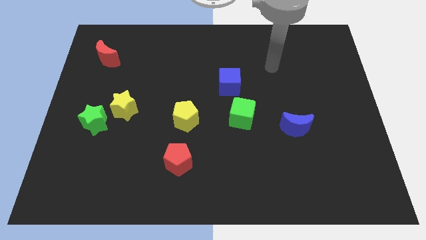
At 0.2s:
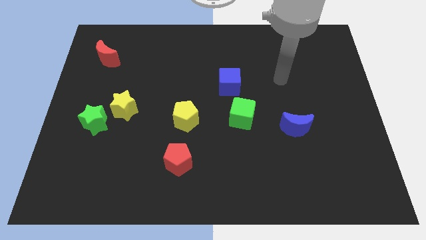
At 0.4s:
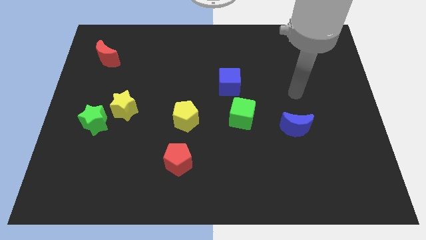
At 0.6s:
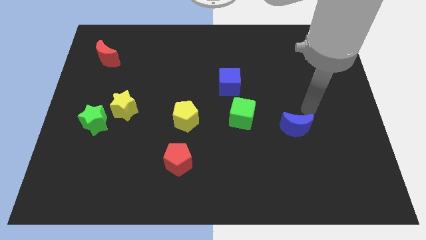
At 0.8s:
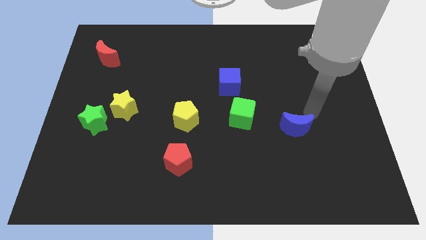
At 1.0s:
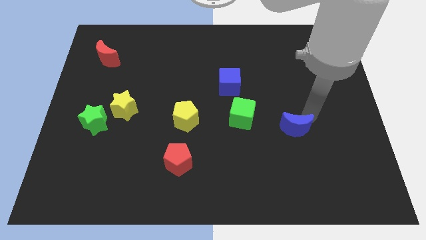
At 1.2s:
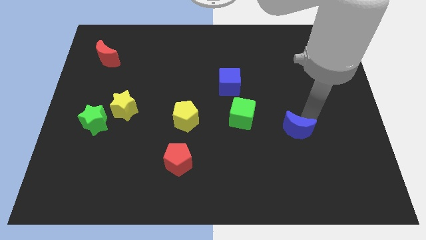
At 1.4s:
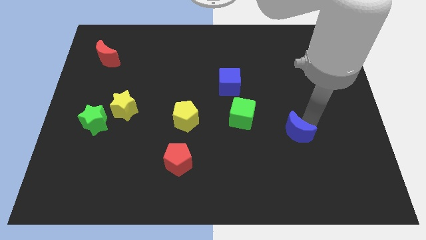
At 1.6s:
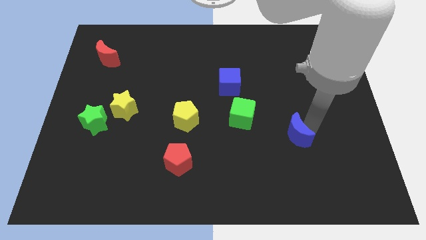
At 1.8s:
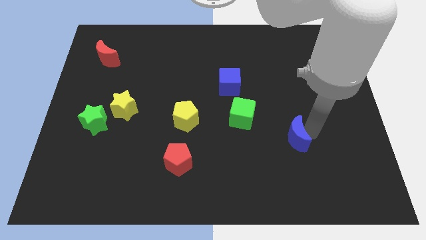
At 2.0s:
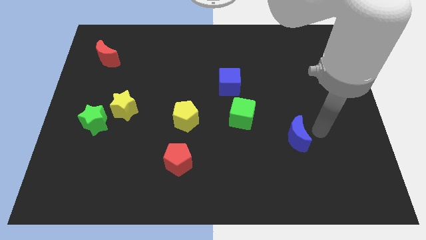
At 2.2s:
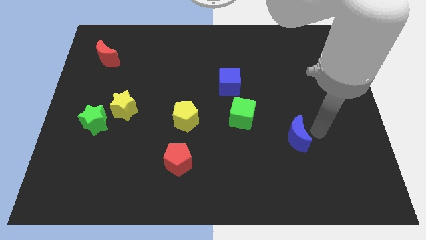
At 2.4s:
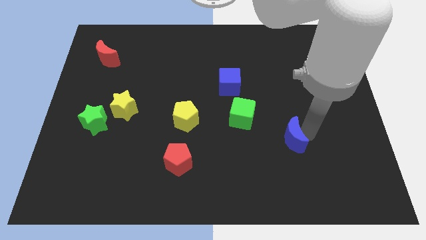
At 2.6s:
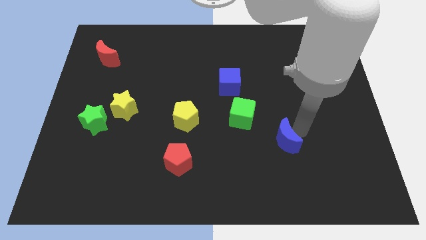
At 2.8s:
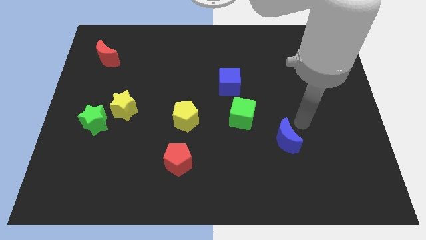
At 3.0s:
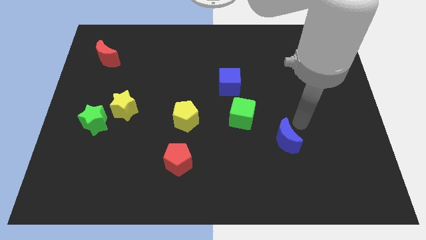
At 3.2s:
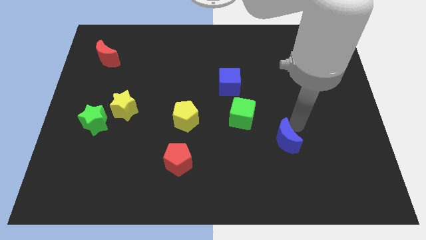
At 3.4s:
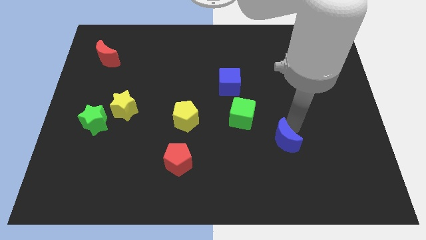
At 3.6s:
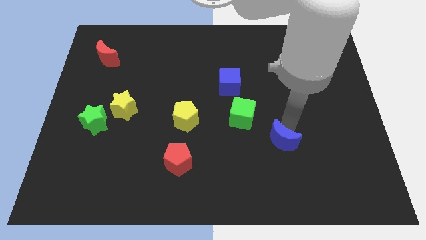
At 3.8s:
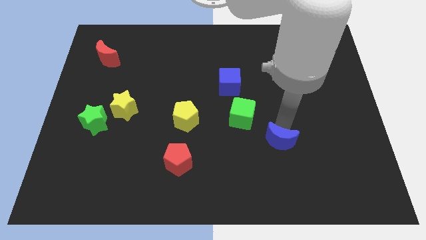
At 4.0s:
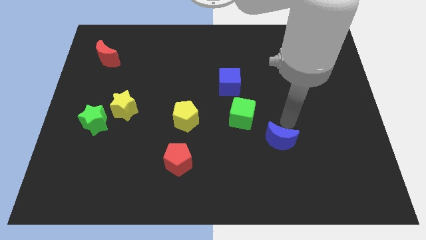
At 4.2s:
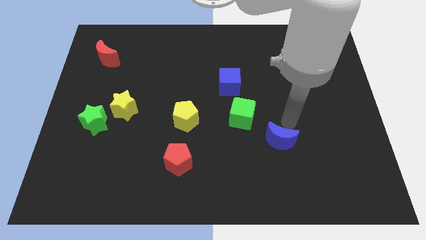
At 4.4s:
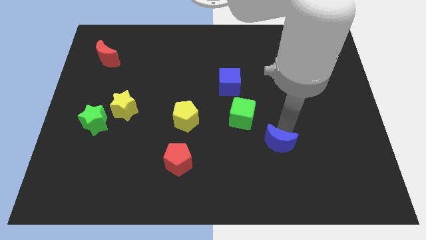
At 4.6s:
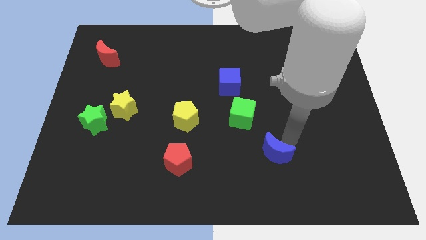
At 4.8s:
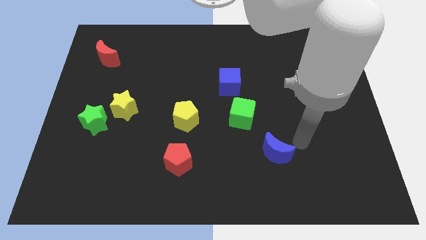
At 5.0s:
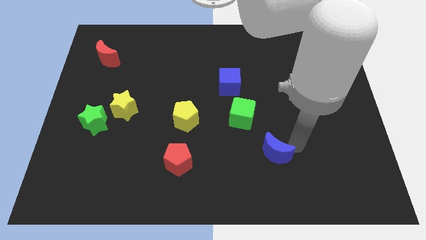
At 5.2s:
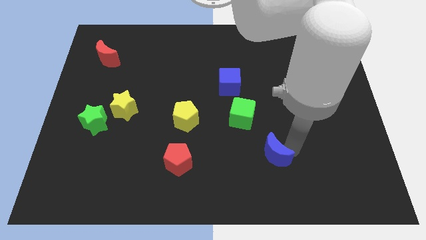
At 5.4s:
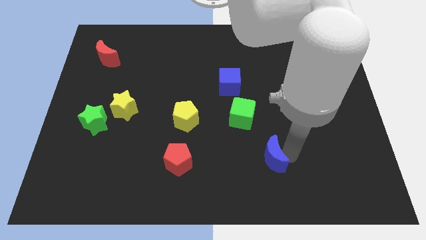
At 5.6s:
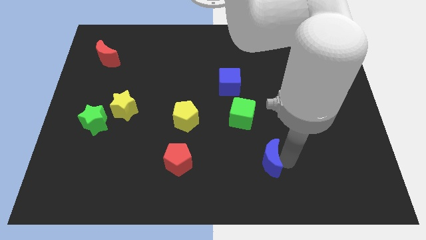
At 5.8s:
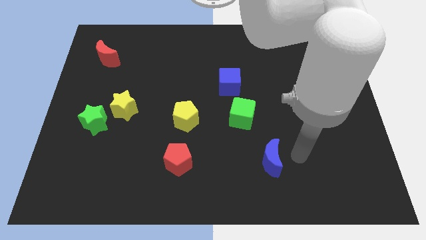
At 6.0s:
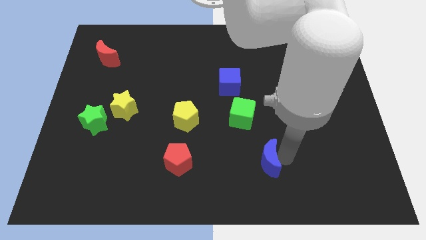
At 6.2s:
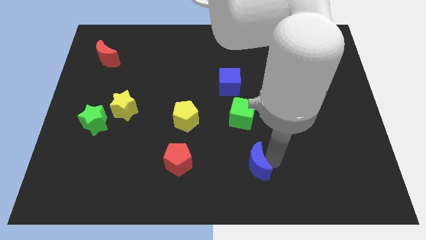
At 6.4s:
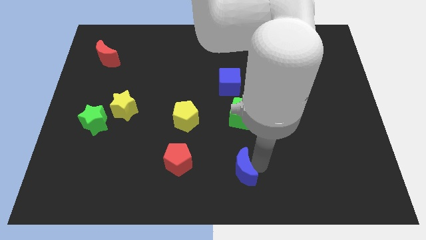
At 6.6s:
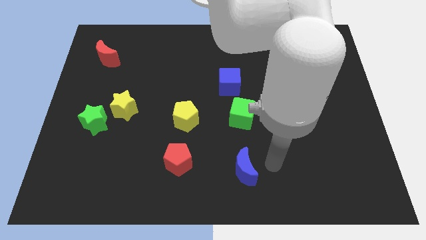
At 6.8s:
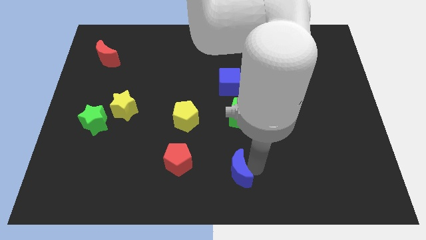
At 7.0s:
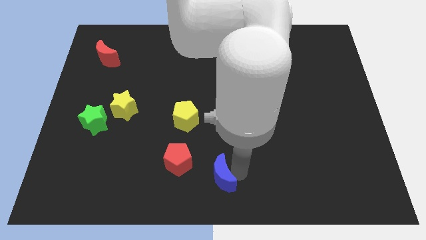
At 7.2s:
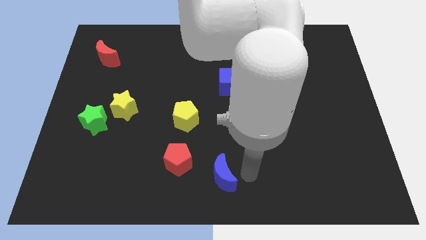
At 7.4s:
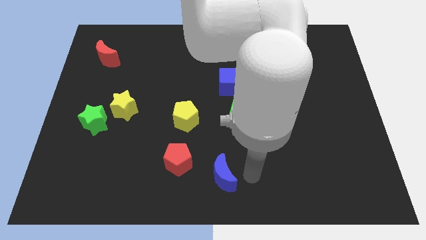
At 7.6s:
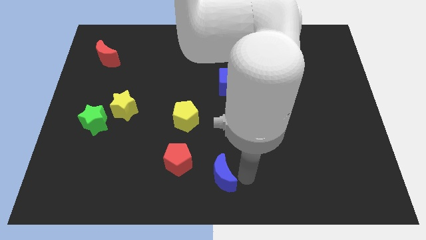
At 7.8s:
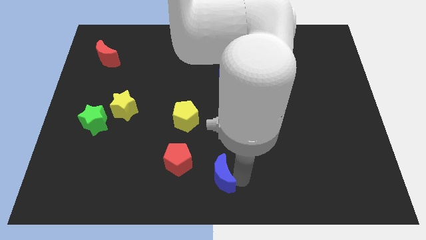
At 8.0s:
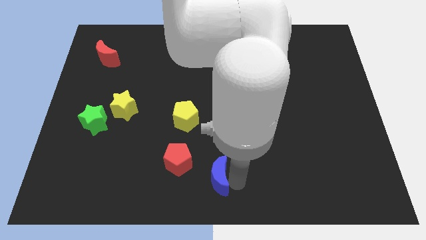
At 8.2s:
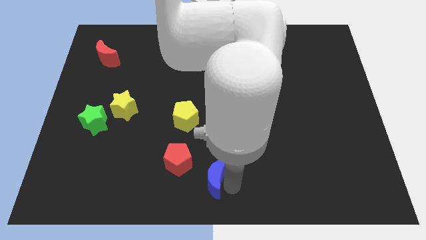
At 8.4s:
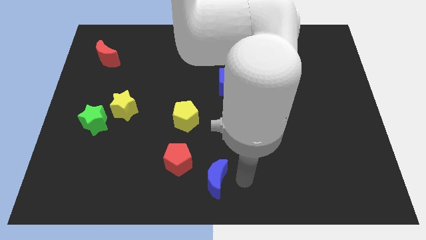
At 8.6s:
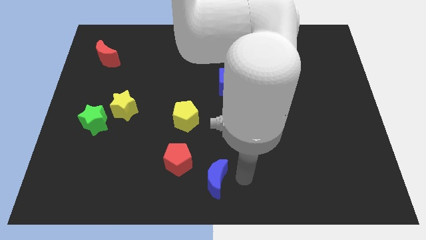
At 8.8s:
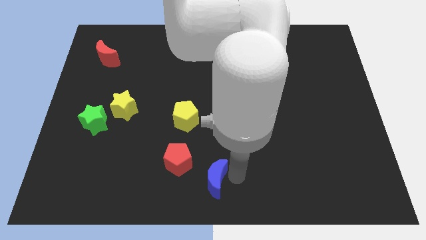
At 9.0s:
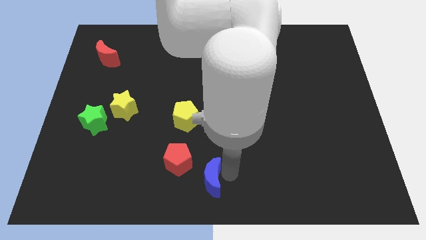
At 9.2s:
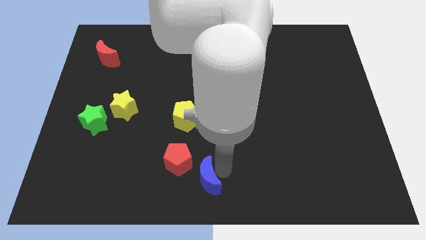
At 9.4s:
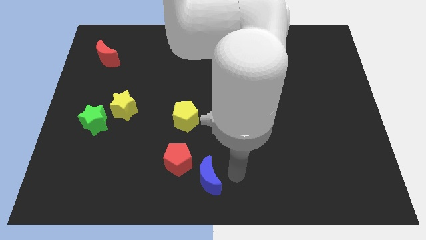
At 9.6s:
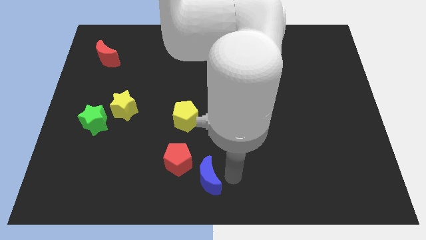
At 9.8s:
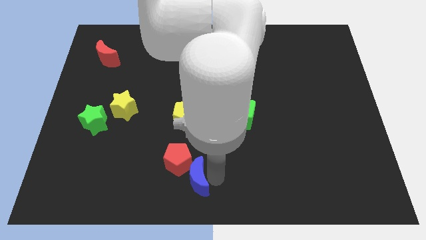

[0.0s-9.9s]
put the blue moon below the yellow pentagon

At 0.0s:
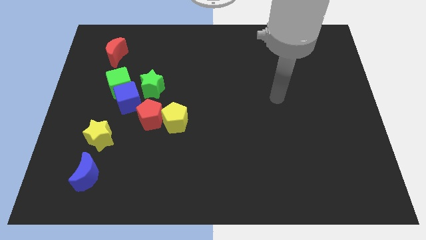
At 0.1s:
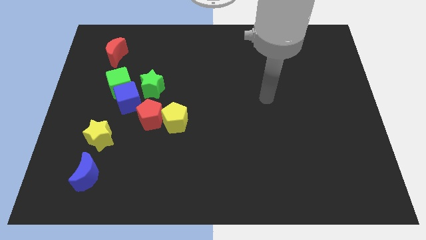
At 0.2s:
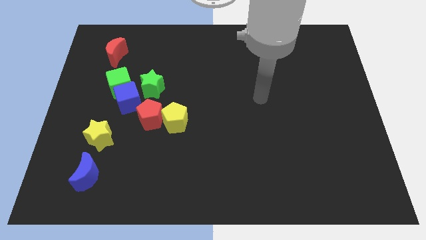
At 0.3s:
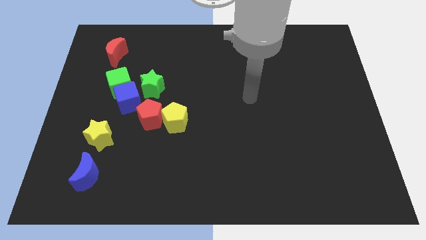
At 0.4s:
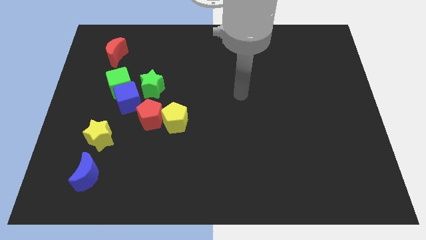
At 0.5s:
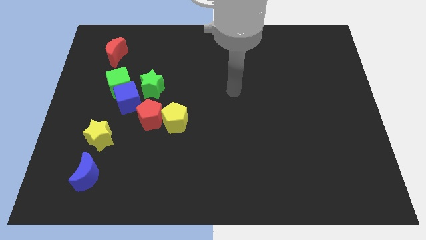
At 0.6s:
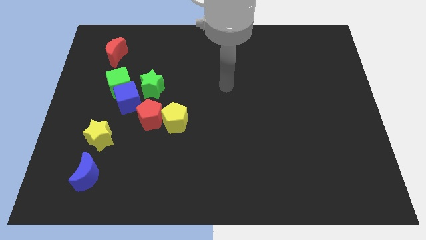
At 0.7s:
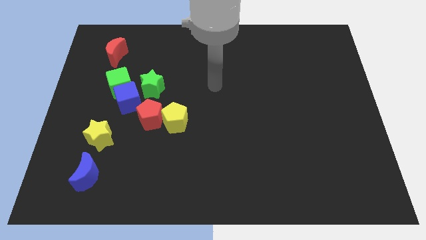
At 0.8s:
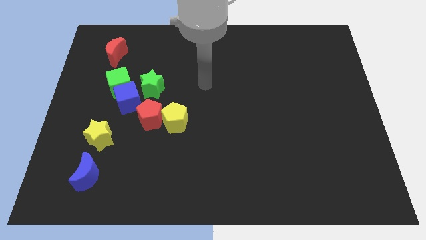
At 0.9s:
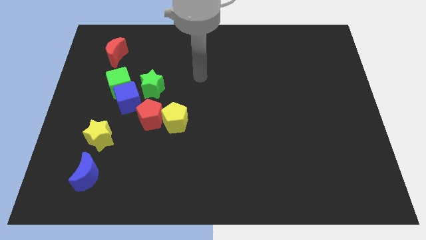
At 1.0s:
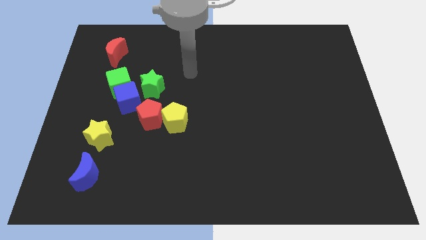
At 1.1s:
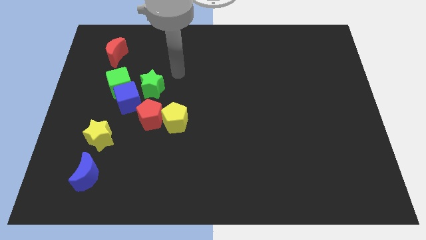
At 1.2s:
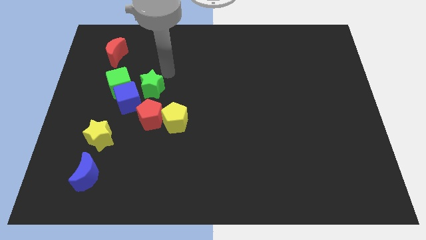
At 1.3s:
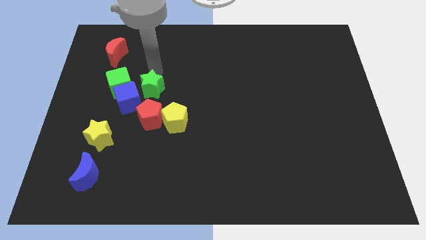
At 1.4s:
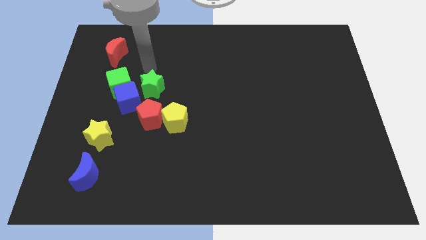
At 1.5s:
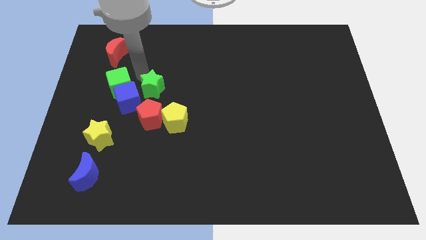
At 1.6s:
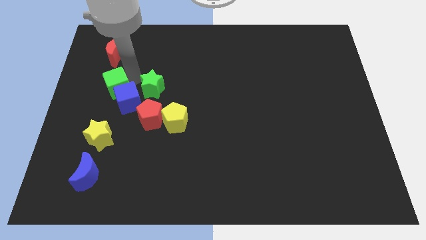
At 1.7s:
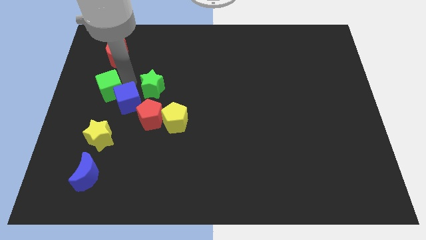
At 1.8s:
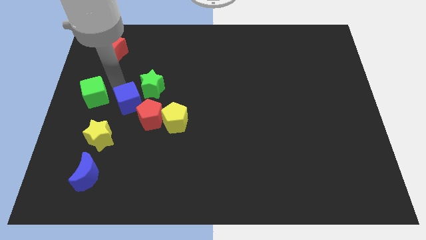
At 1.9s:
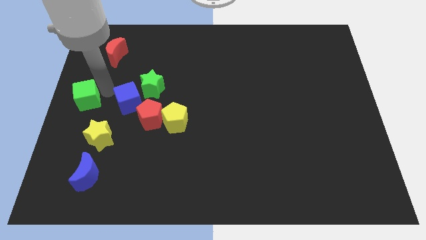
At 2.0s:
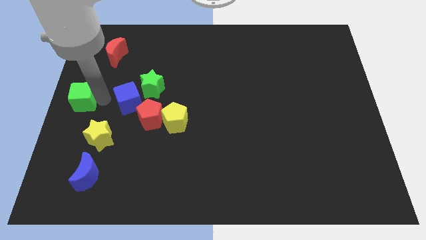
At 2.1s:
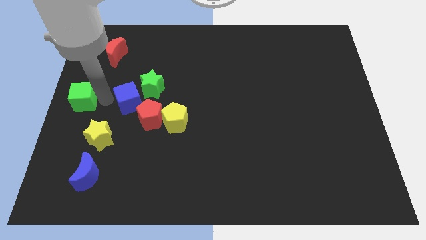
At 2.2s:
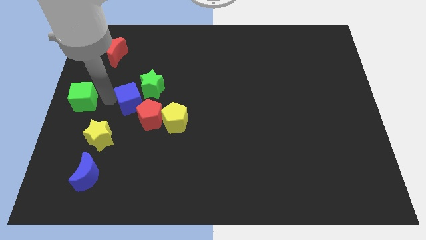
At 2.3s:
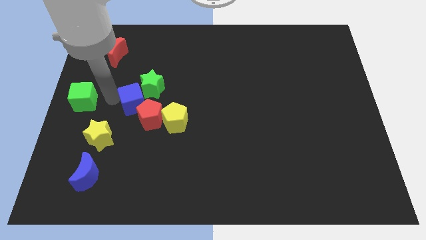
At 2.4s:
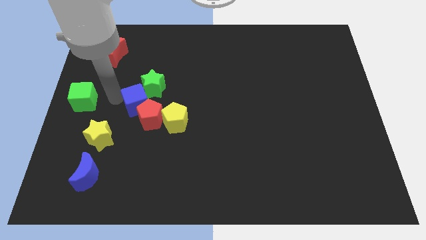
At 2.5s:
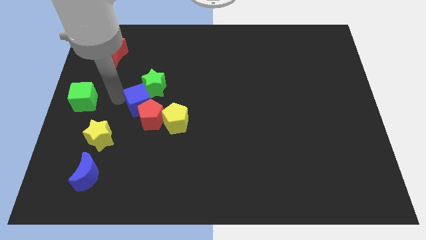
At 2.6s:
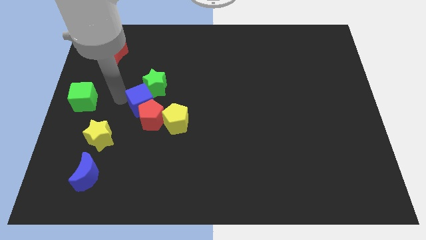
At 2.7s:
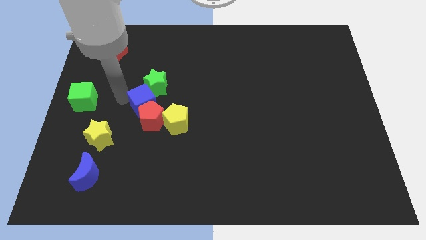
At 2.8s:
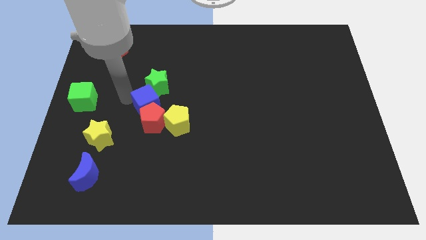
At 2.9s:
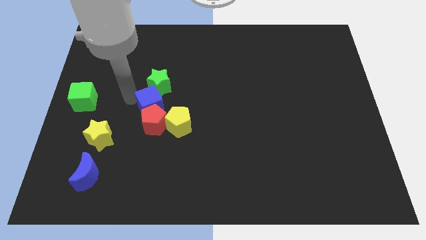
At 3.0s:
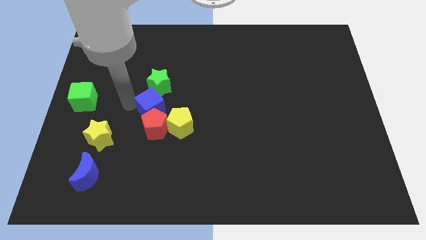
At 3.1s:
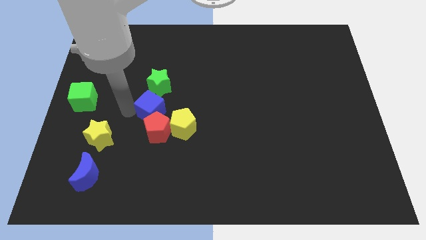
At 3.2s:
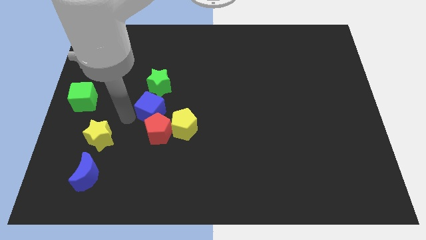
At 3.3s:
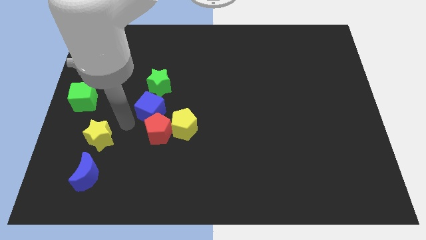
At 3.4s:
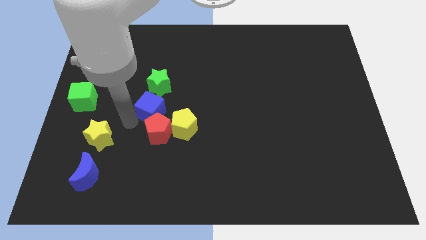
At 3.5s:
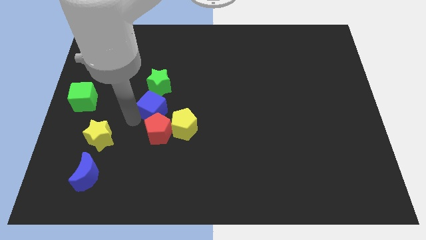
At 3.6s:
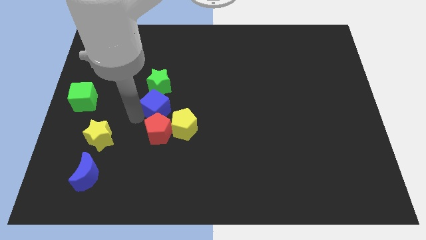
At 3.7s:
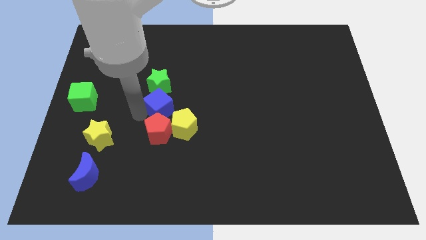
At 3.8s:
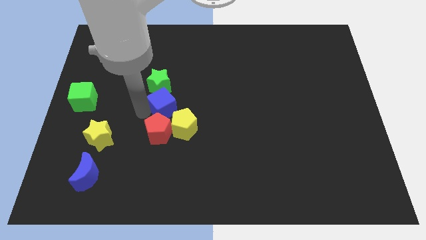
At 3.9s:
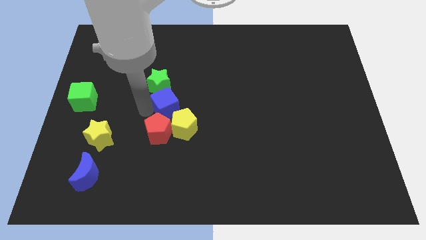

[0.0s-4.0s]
move the blue cube above the yellow pentagon
